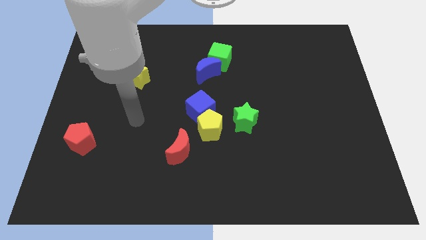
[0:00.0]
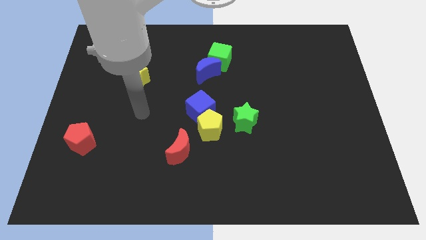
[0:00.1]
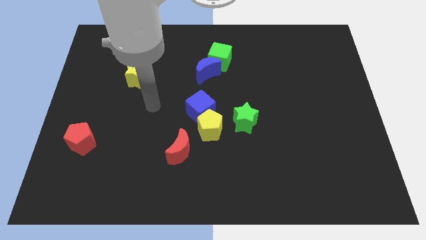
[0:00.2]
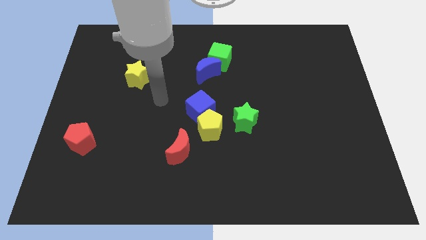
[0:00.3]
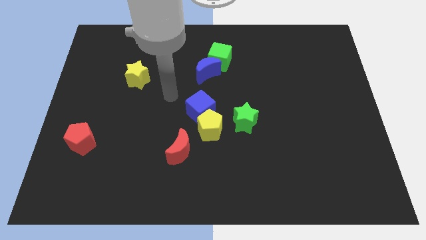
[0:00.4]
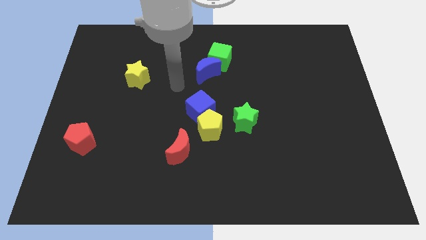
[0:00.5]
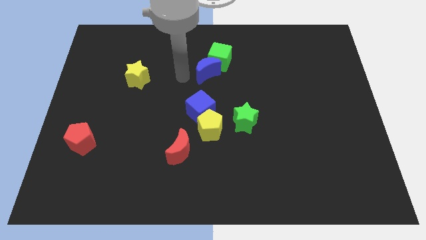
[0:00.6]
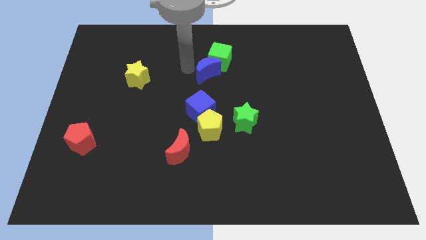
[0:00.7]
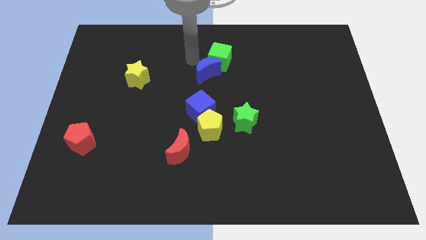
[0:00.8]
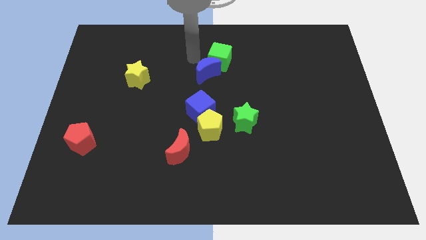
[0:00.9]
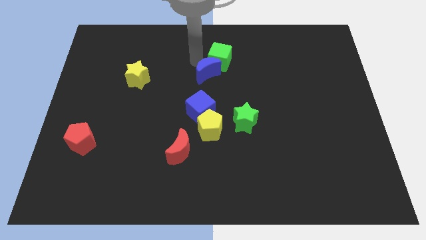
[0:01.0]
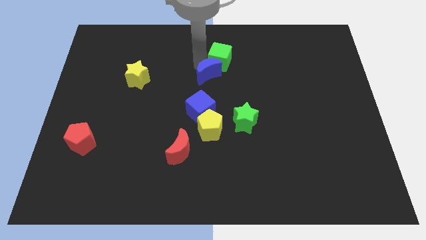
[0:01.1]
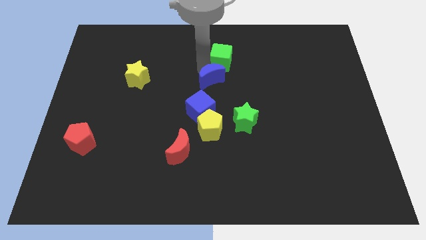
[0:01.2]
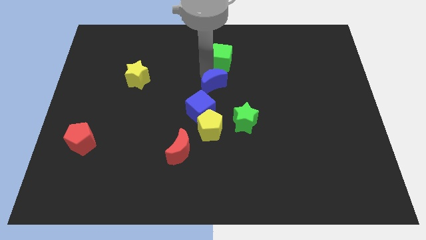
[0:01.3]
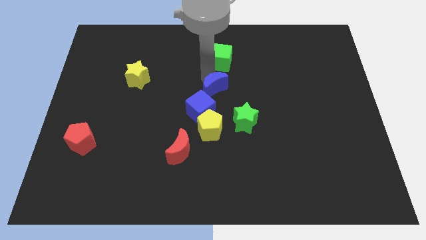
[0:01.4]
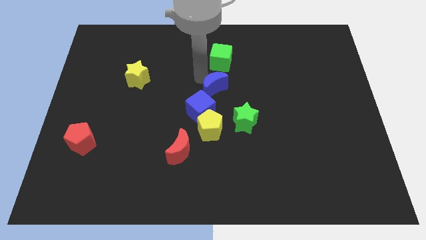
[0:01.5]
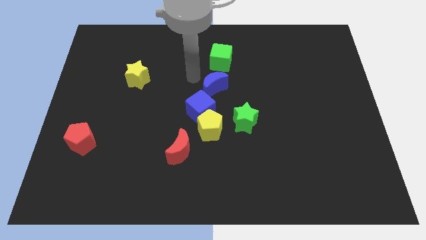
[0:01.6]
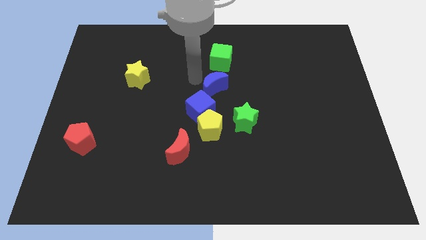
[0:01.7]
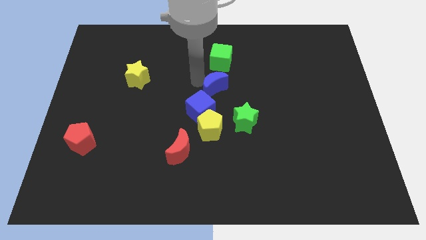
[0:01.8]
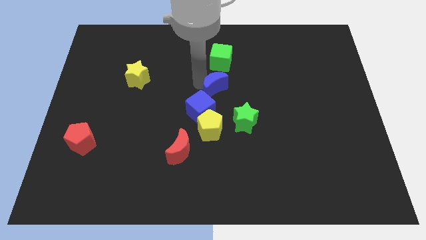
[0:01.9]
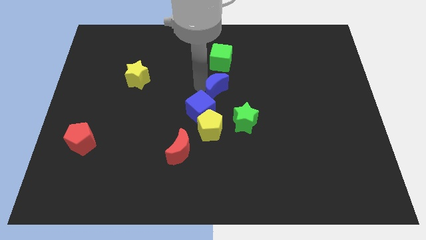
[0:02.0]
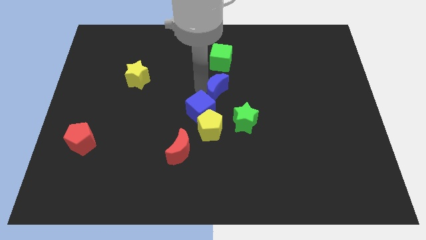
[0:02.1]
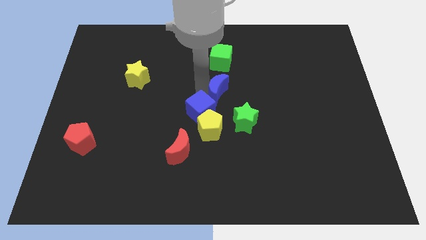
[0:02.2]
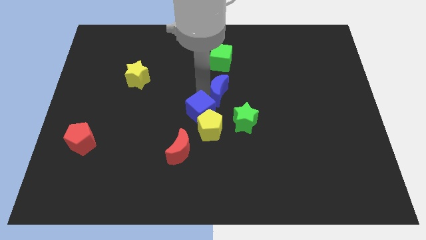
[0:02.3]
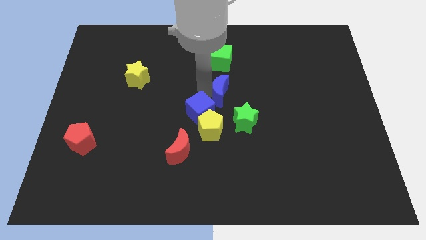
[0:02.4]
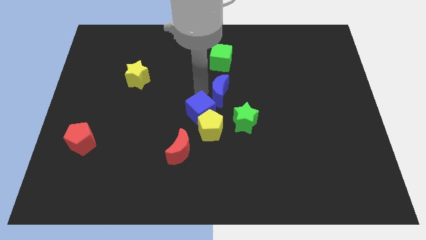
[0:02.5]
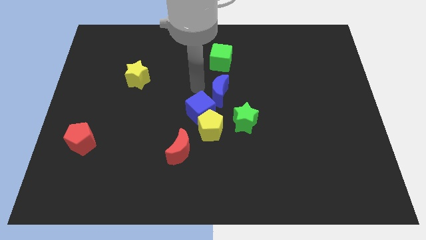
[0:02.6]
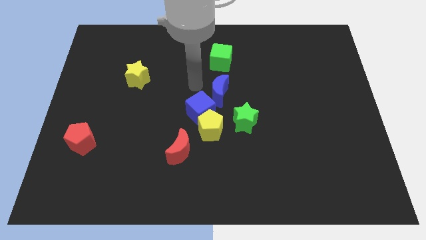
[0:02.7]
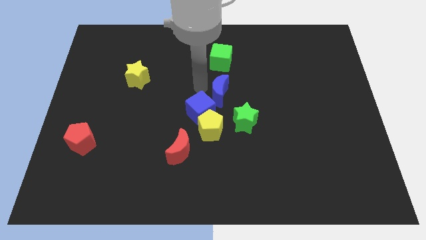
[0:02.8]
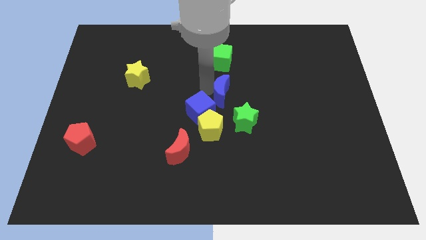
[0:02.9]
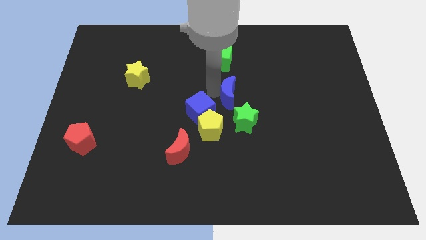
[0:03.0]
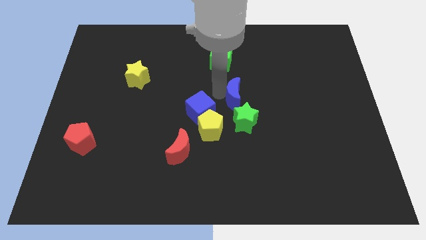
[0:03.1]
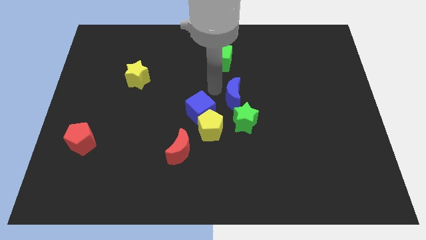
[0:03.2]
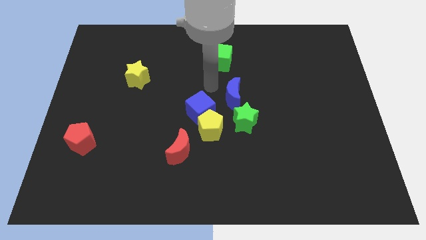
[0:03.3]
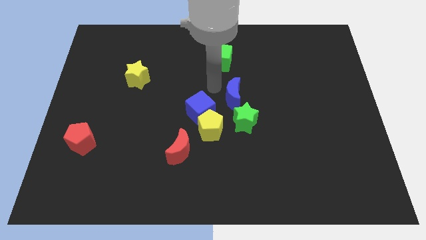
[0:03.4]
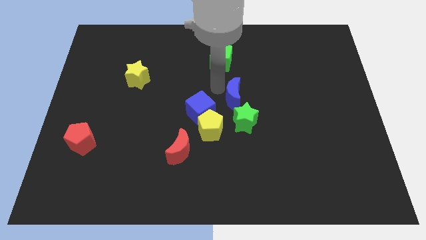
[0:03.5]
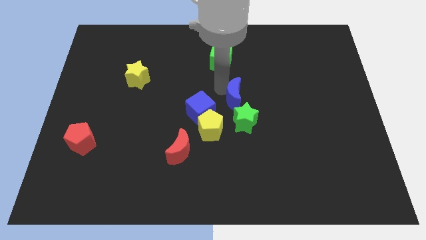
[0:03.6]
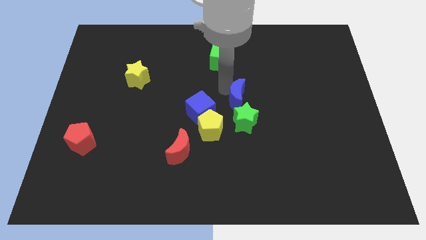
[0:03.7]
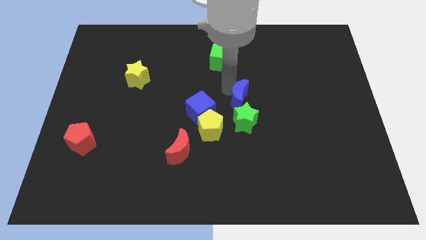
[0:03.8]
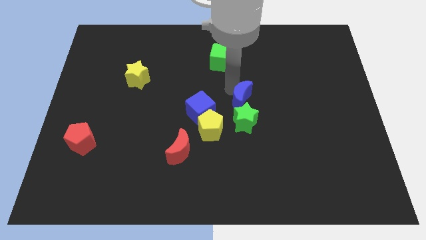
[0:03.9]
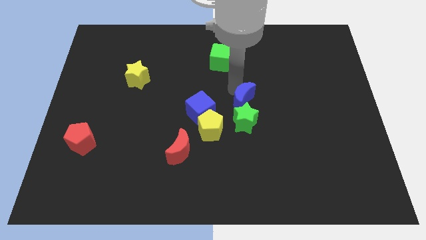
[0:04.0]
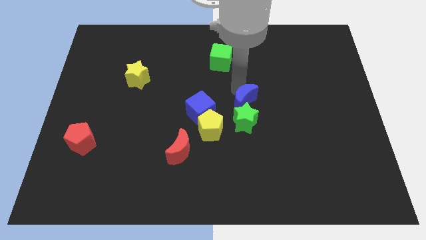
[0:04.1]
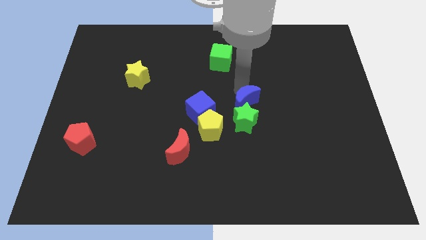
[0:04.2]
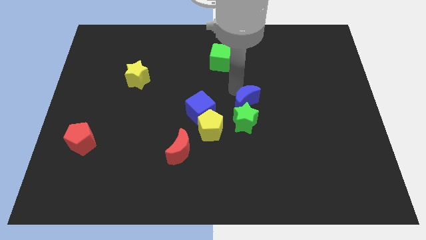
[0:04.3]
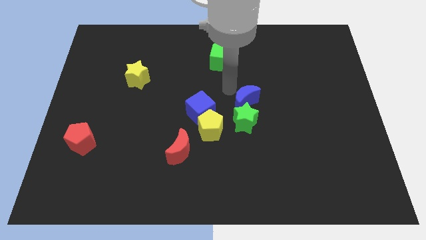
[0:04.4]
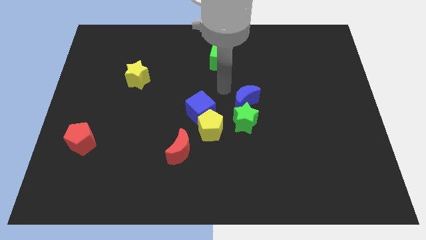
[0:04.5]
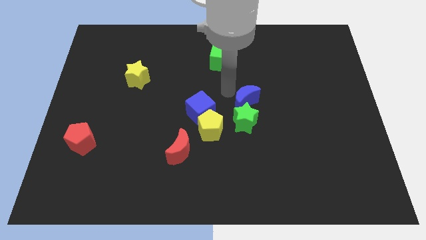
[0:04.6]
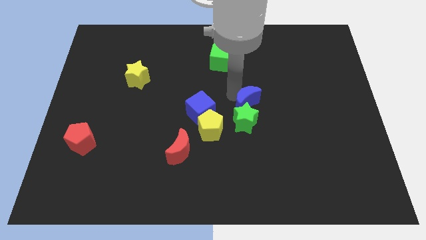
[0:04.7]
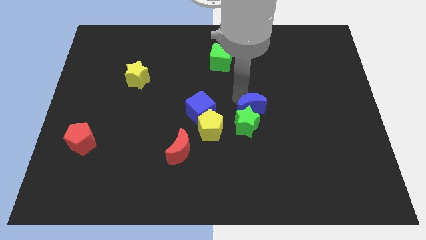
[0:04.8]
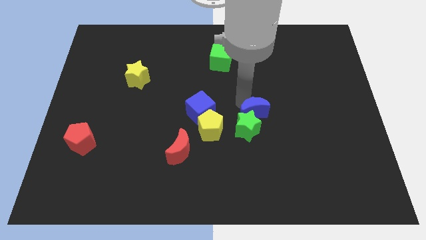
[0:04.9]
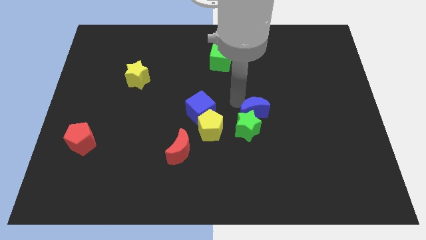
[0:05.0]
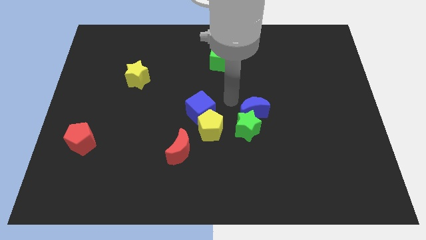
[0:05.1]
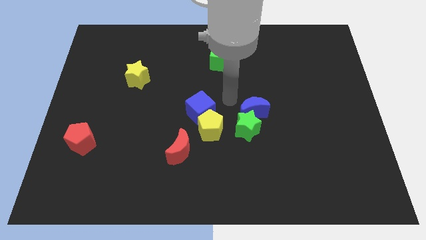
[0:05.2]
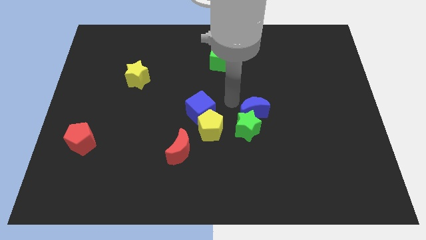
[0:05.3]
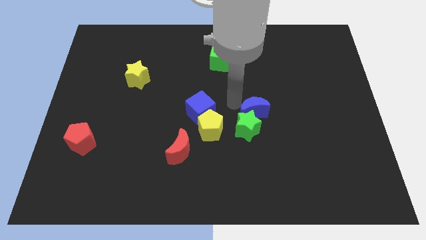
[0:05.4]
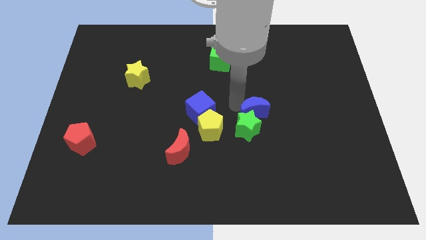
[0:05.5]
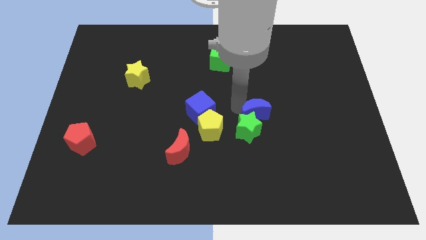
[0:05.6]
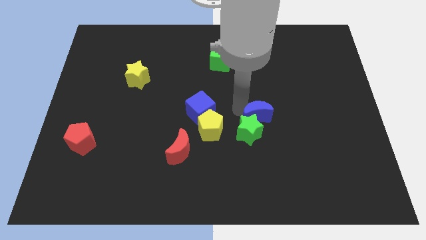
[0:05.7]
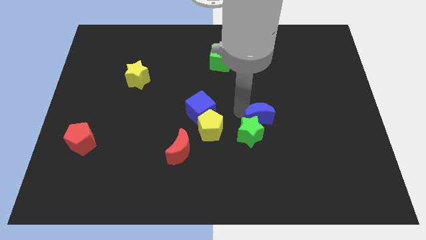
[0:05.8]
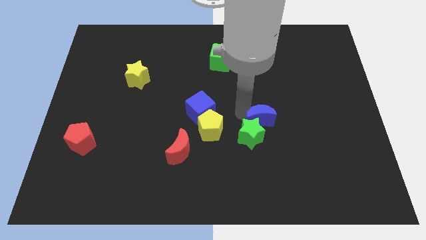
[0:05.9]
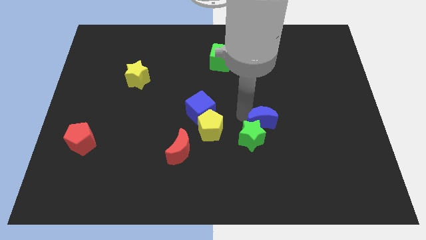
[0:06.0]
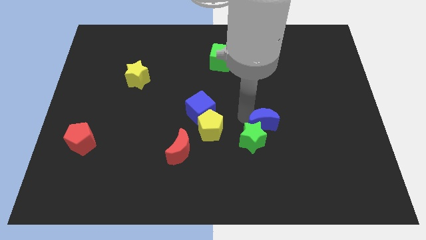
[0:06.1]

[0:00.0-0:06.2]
slide the blue moon downwards and right

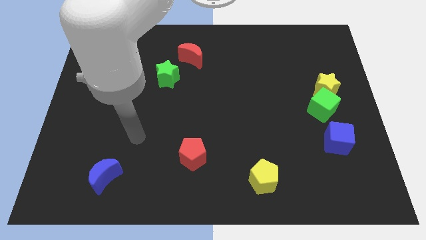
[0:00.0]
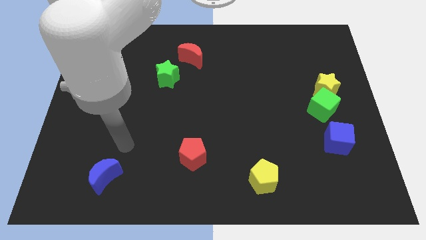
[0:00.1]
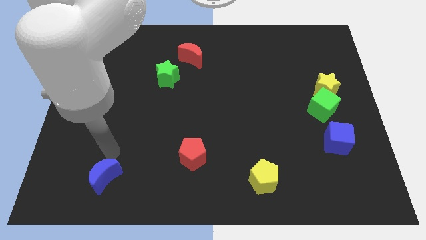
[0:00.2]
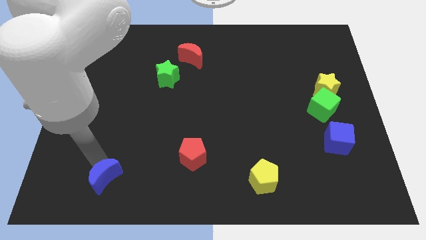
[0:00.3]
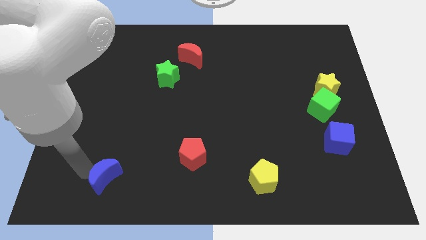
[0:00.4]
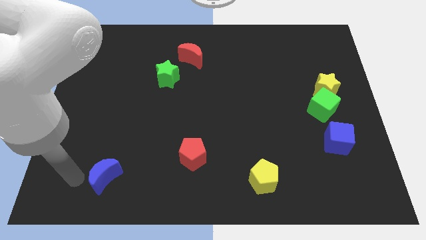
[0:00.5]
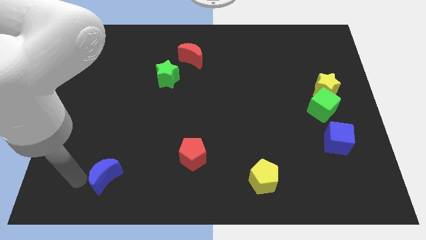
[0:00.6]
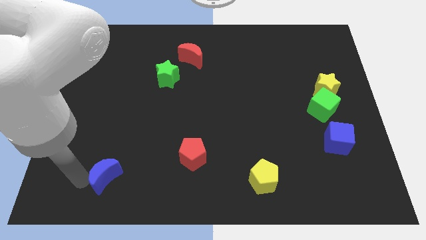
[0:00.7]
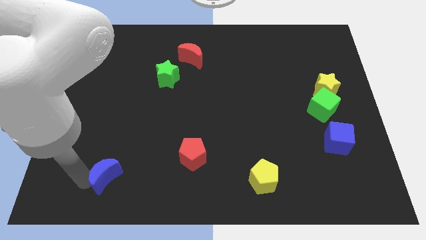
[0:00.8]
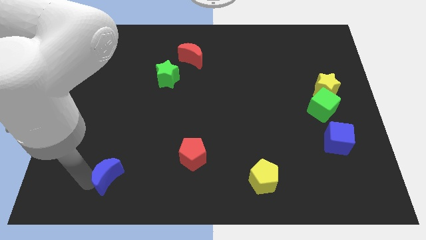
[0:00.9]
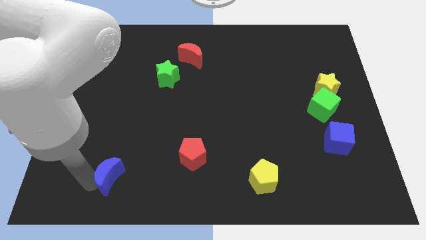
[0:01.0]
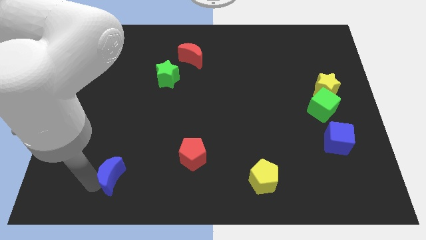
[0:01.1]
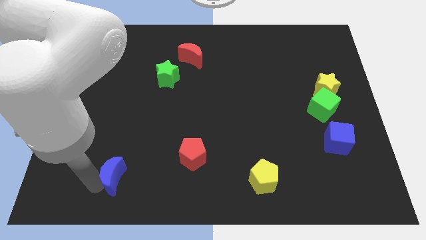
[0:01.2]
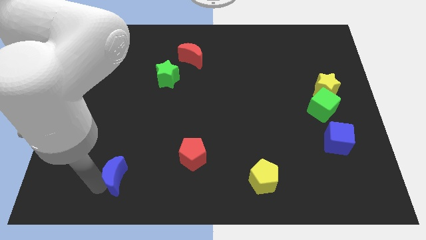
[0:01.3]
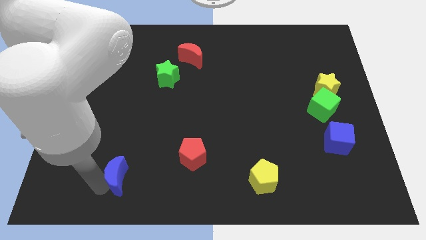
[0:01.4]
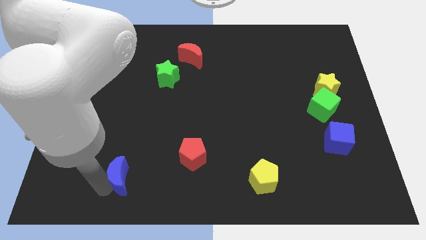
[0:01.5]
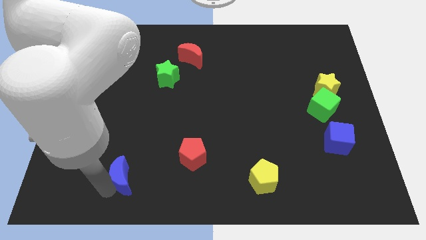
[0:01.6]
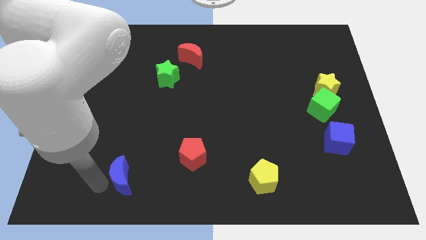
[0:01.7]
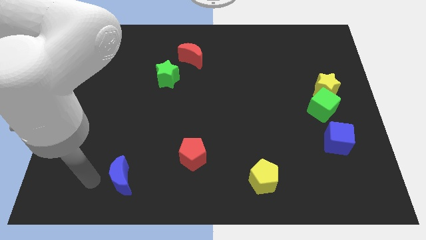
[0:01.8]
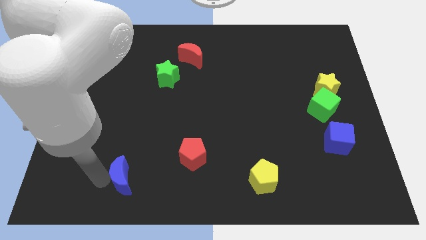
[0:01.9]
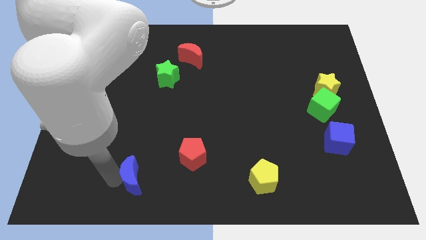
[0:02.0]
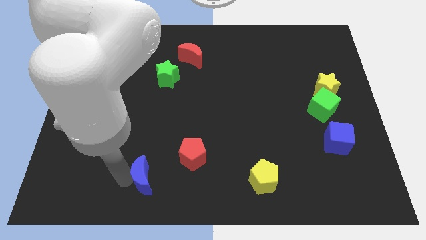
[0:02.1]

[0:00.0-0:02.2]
move the blue moon to the right a little
